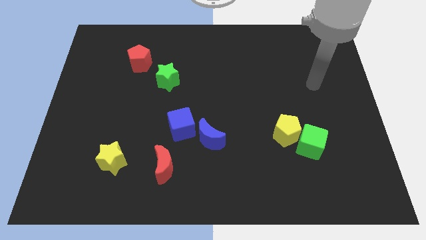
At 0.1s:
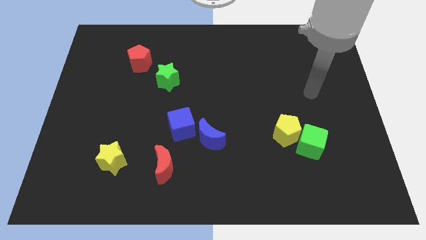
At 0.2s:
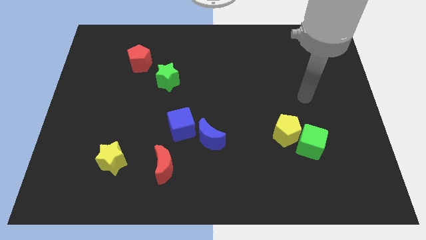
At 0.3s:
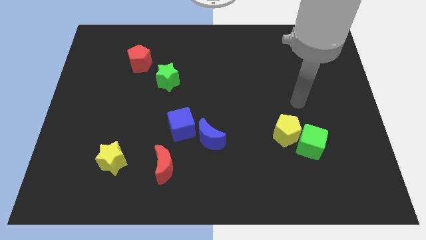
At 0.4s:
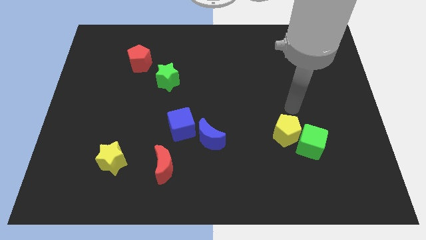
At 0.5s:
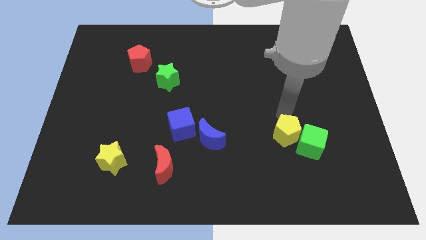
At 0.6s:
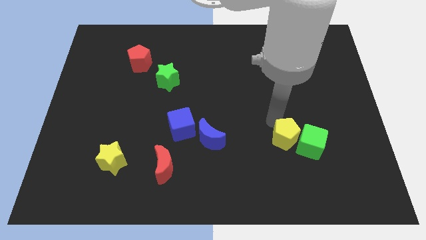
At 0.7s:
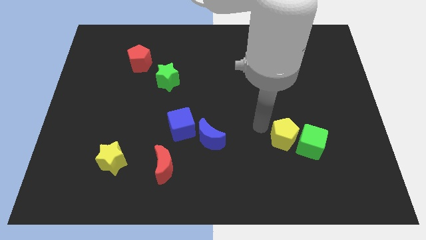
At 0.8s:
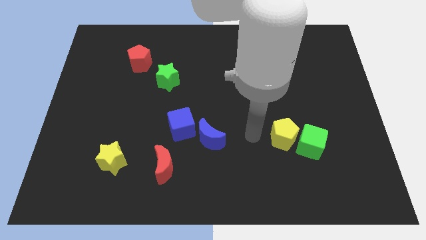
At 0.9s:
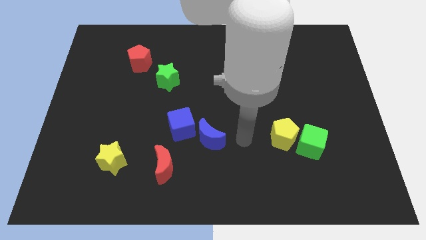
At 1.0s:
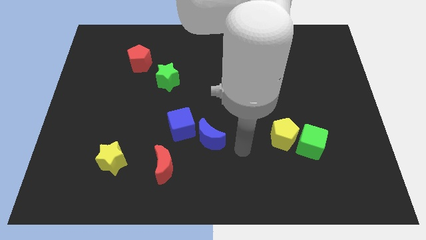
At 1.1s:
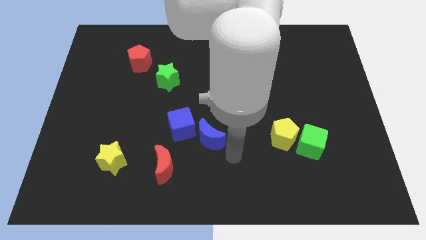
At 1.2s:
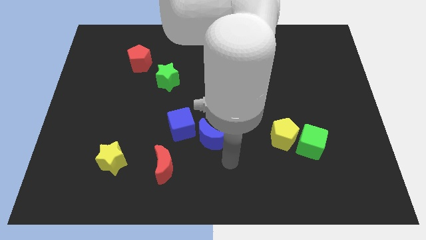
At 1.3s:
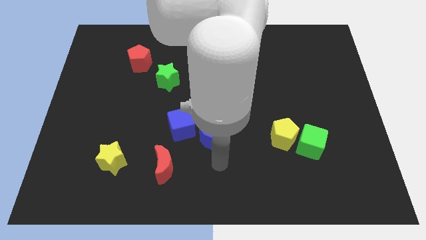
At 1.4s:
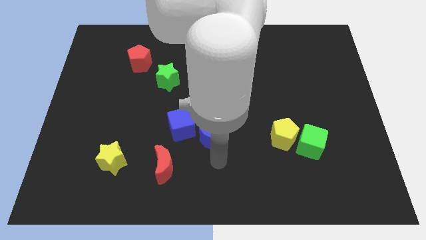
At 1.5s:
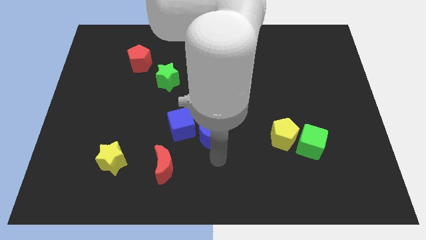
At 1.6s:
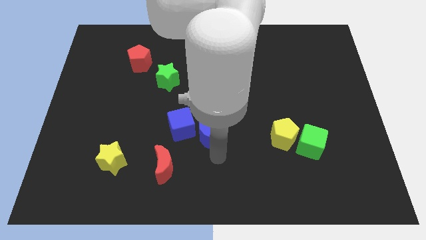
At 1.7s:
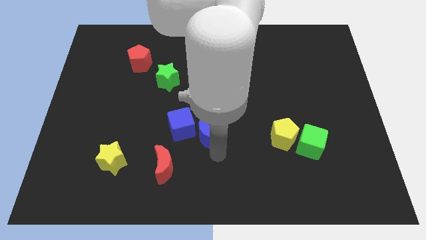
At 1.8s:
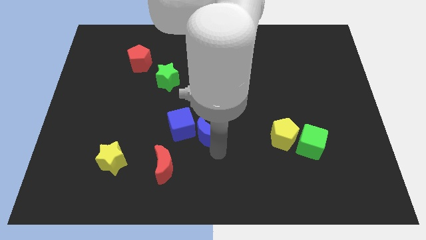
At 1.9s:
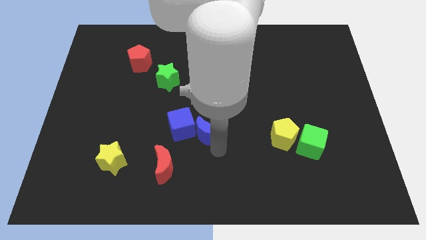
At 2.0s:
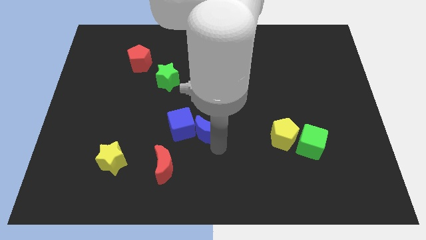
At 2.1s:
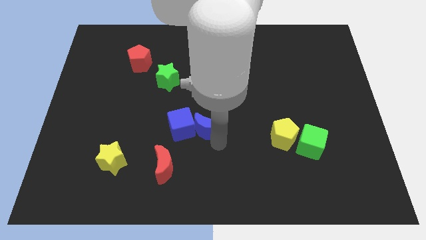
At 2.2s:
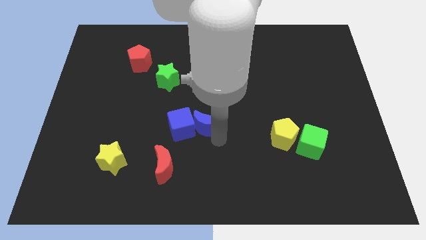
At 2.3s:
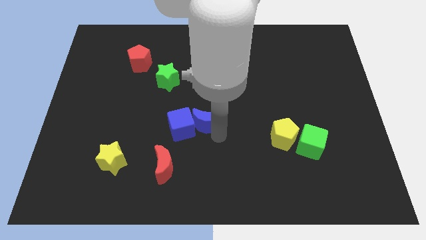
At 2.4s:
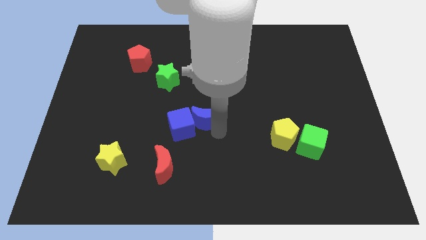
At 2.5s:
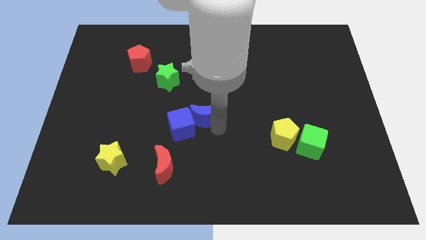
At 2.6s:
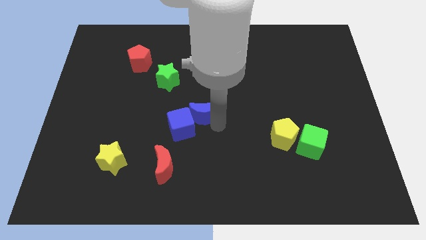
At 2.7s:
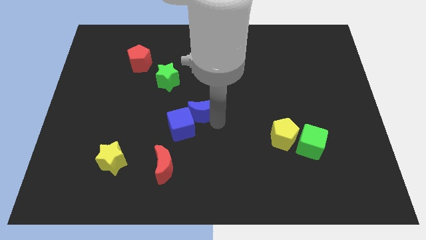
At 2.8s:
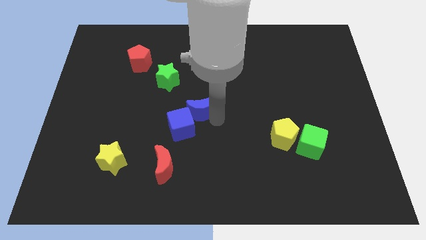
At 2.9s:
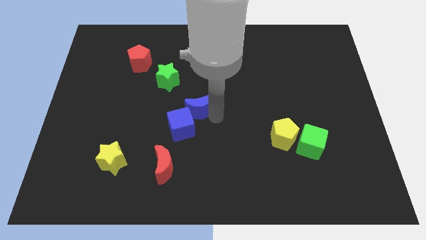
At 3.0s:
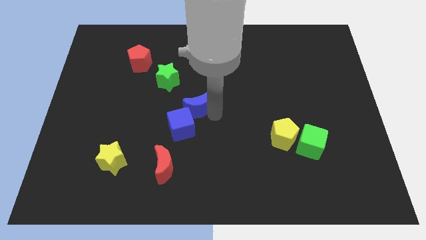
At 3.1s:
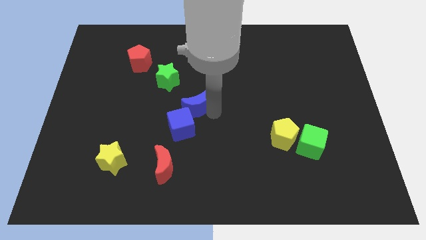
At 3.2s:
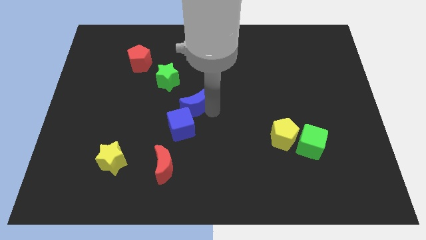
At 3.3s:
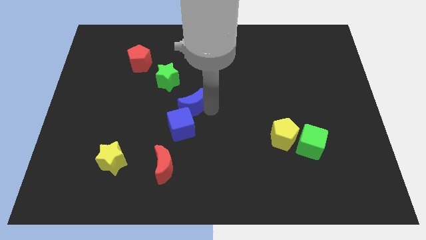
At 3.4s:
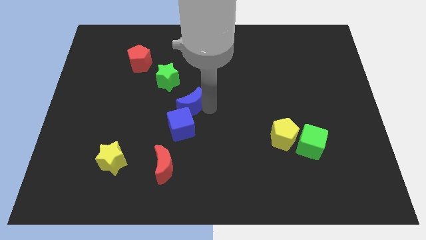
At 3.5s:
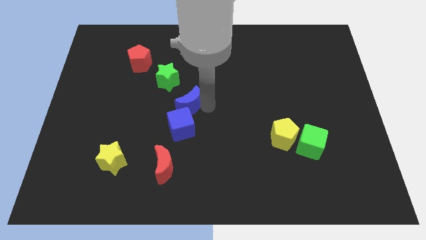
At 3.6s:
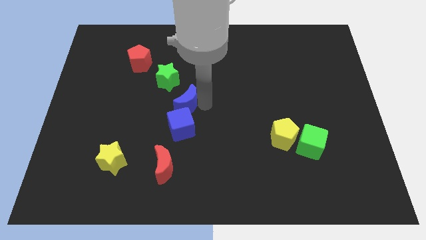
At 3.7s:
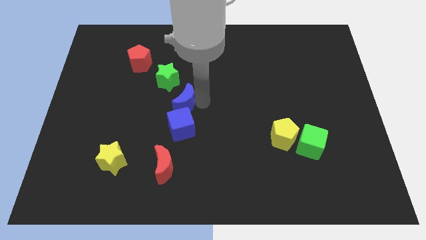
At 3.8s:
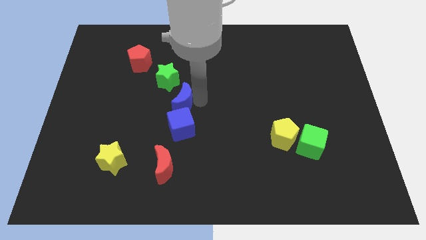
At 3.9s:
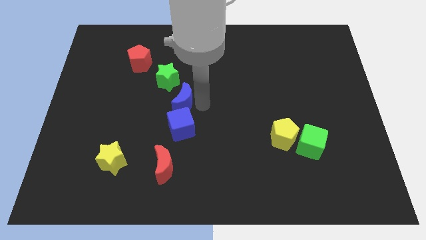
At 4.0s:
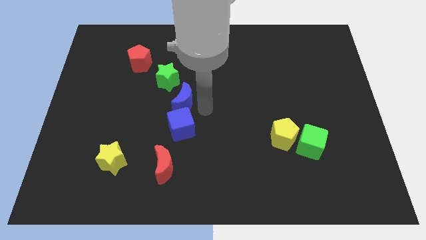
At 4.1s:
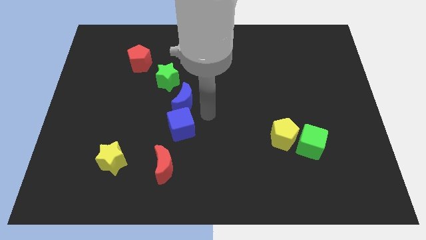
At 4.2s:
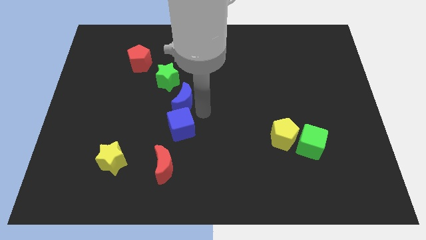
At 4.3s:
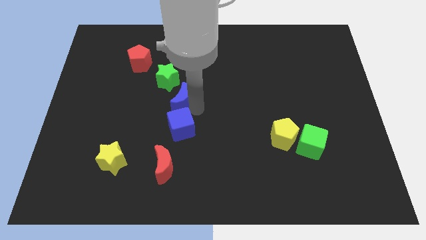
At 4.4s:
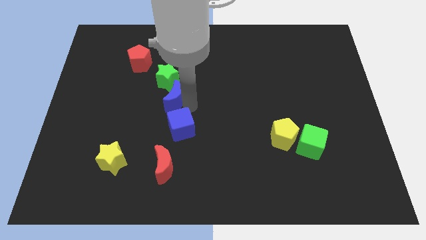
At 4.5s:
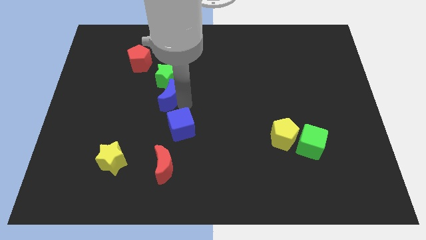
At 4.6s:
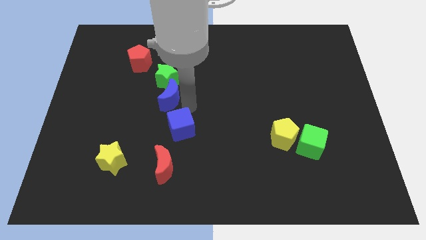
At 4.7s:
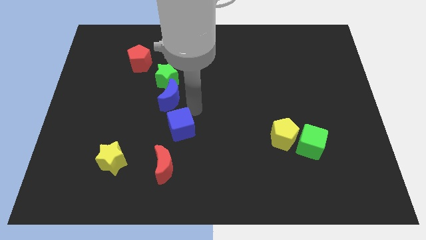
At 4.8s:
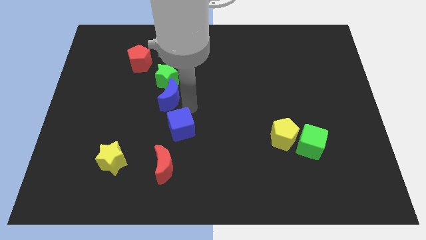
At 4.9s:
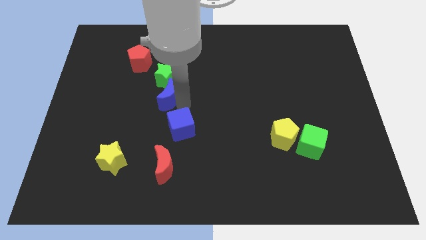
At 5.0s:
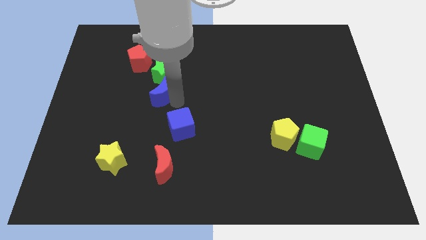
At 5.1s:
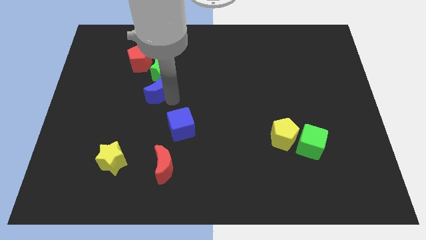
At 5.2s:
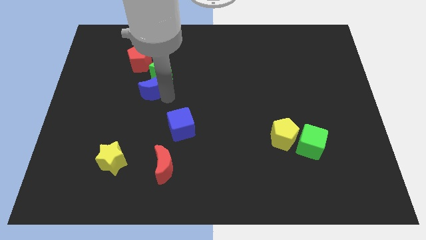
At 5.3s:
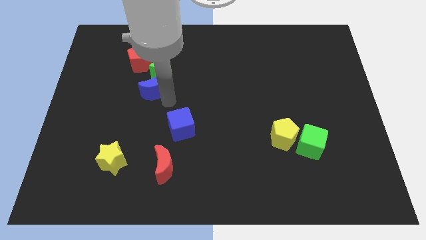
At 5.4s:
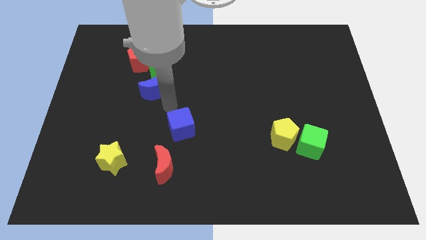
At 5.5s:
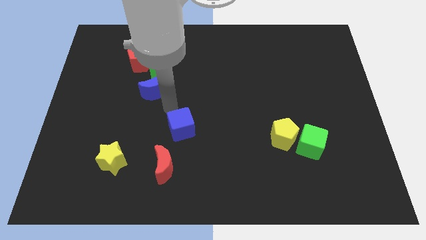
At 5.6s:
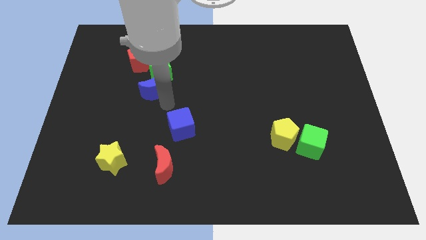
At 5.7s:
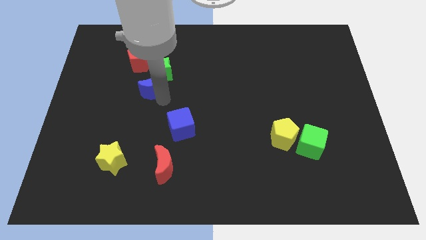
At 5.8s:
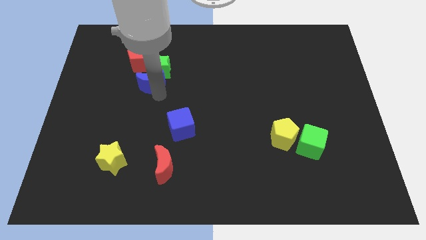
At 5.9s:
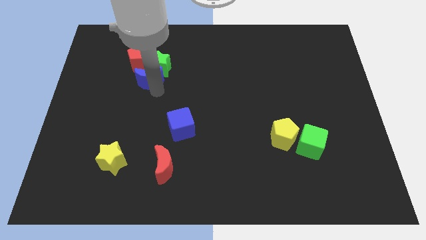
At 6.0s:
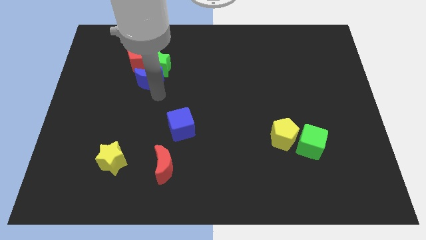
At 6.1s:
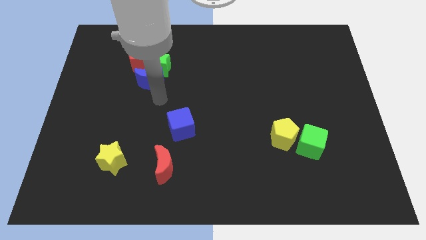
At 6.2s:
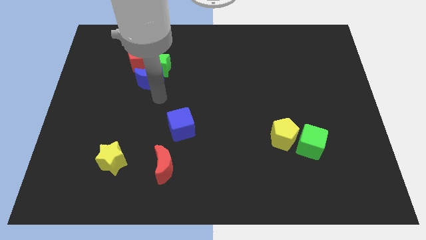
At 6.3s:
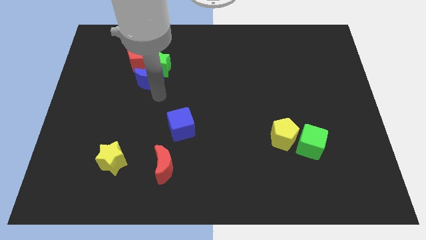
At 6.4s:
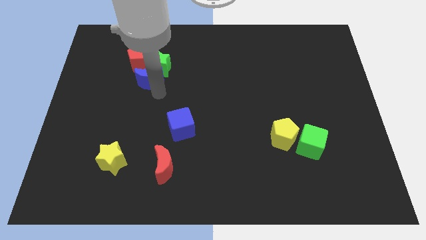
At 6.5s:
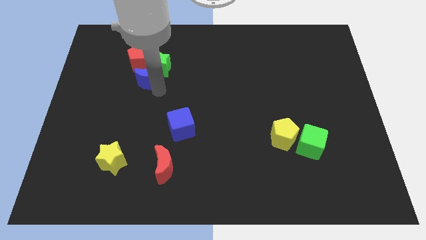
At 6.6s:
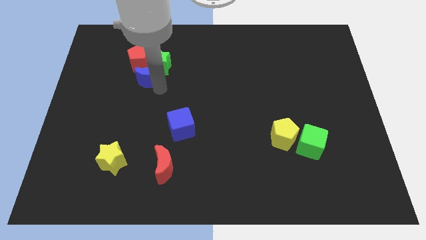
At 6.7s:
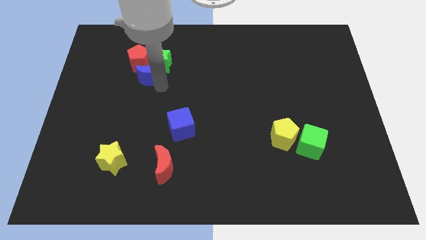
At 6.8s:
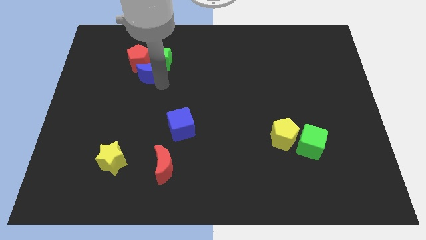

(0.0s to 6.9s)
slide the blue moon to the red pentagon

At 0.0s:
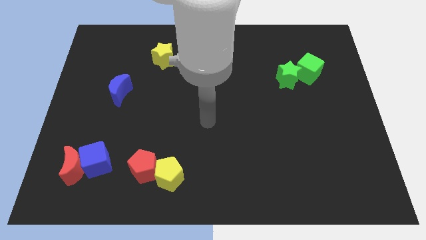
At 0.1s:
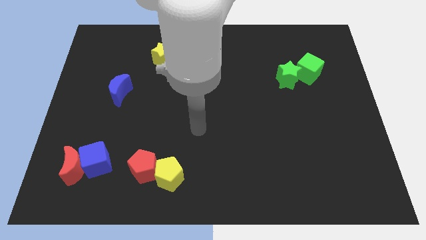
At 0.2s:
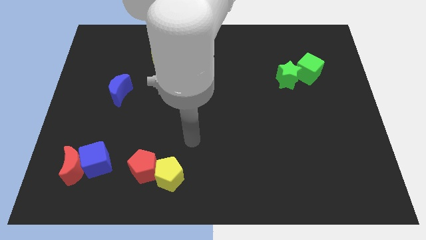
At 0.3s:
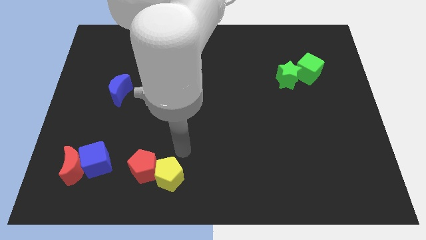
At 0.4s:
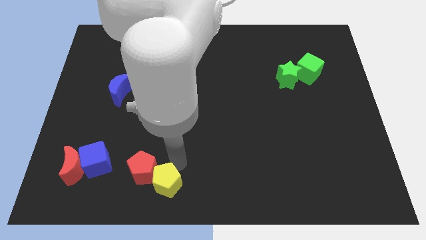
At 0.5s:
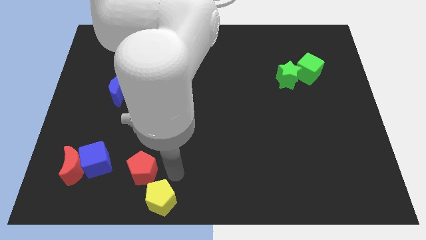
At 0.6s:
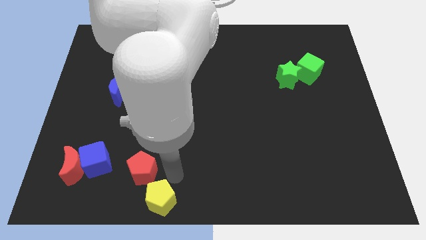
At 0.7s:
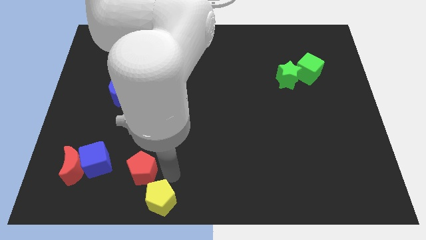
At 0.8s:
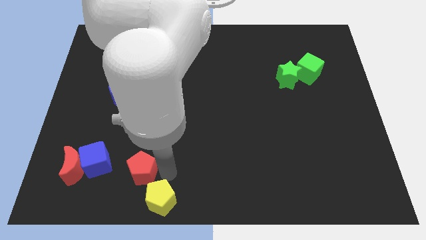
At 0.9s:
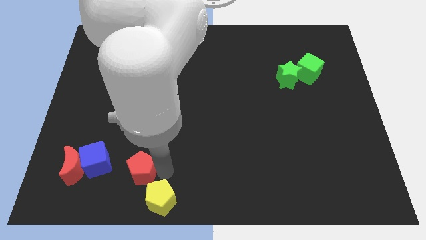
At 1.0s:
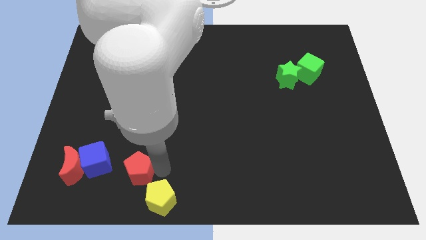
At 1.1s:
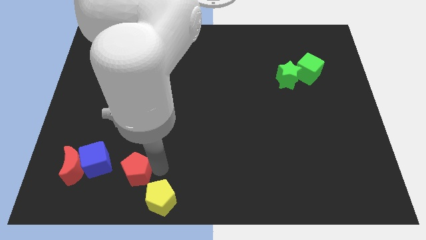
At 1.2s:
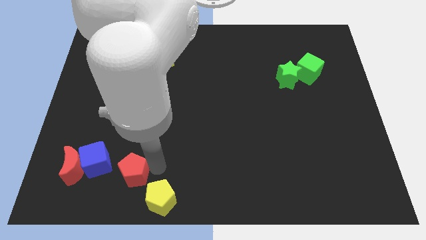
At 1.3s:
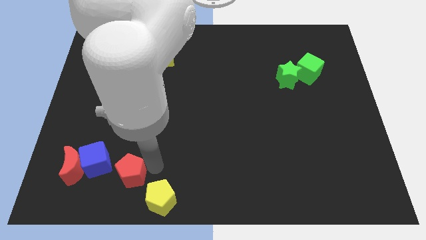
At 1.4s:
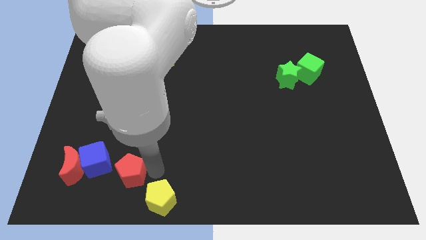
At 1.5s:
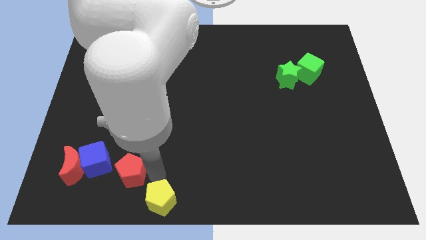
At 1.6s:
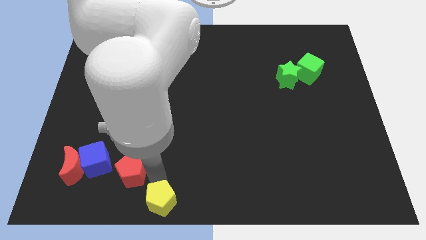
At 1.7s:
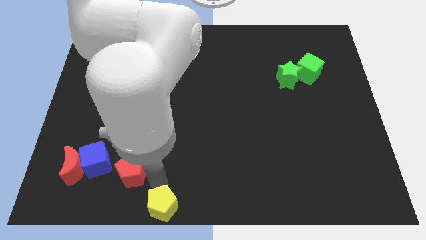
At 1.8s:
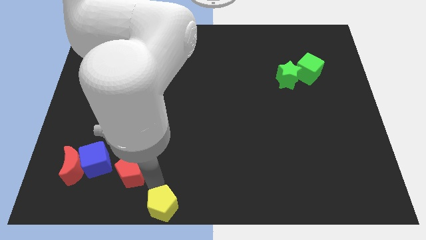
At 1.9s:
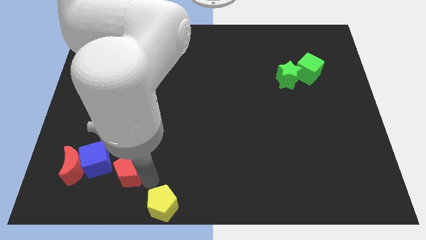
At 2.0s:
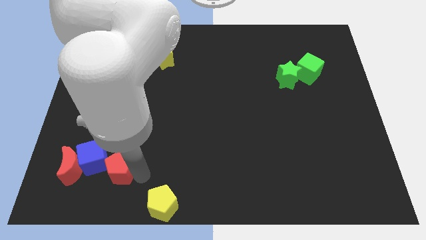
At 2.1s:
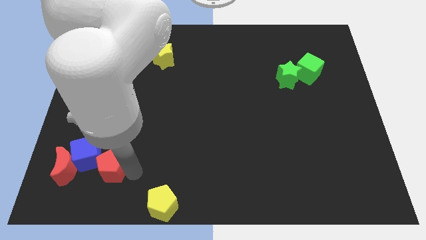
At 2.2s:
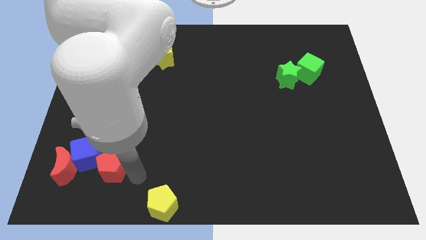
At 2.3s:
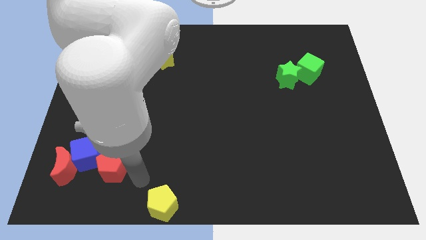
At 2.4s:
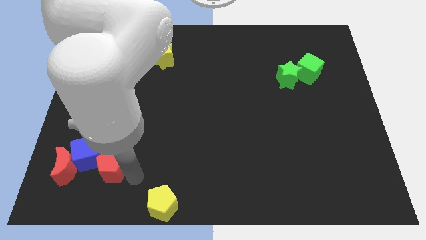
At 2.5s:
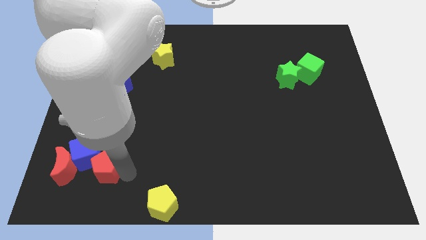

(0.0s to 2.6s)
put the red pentagon to the blue cube
